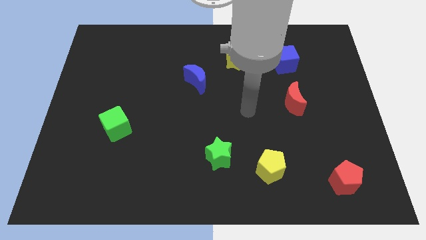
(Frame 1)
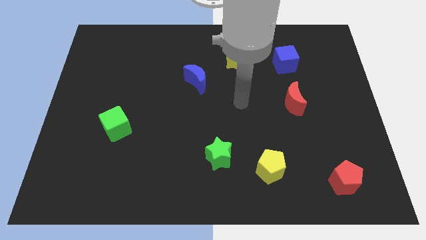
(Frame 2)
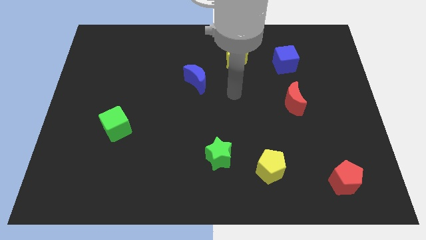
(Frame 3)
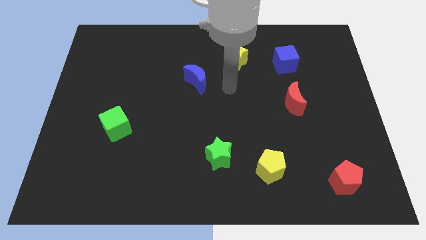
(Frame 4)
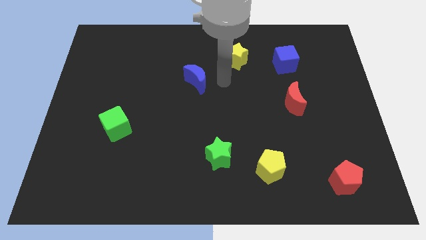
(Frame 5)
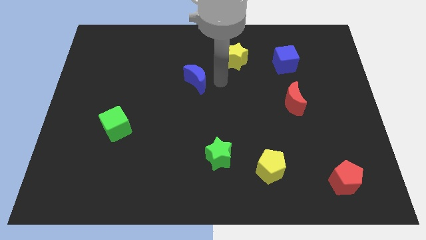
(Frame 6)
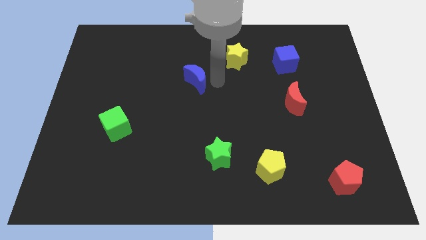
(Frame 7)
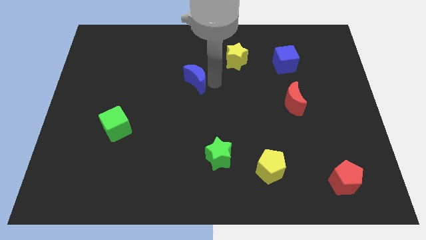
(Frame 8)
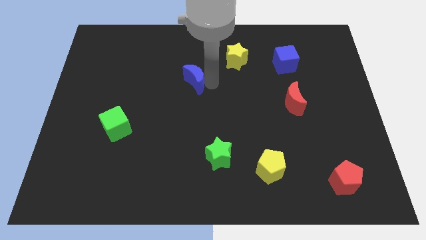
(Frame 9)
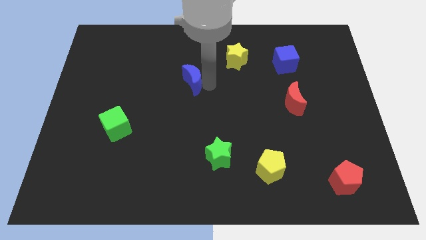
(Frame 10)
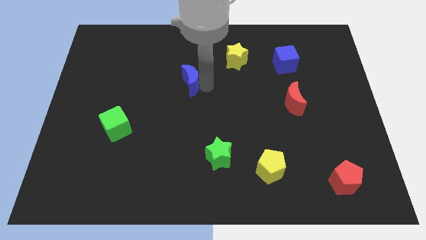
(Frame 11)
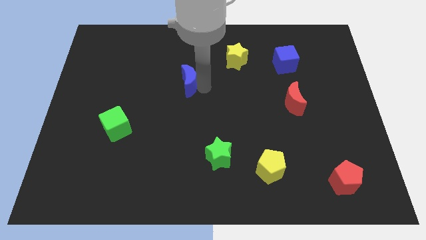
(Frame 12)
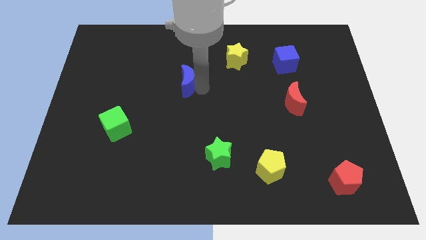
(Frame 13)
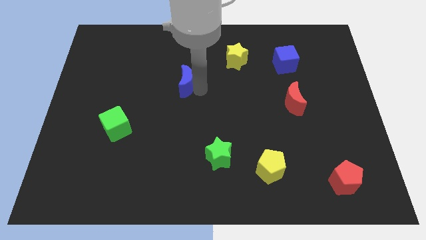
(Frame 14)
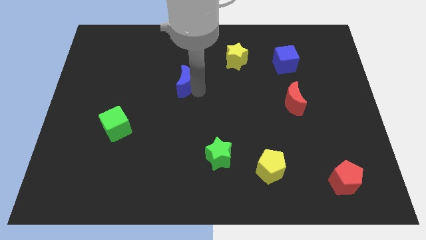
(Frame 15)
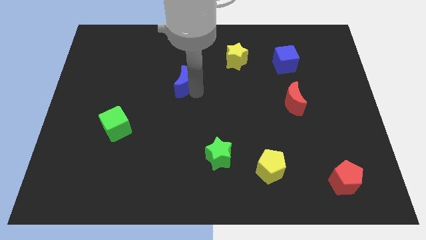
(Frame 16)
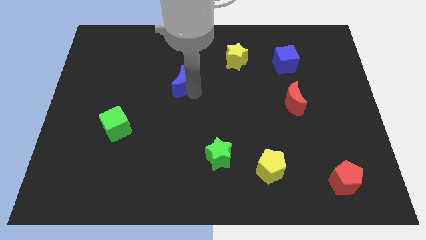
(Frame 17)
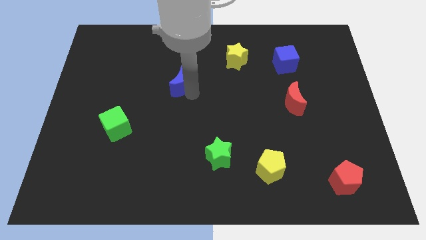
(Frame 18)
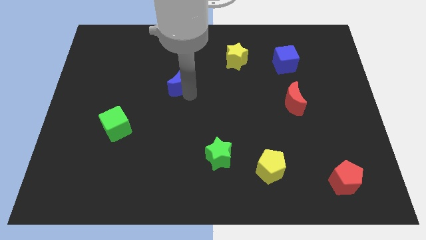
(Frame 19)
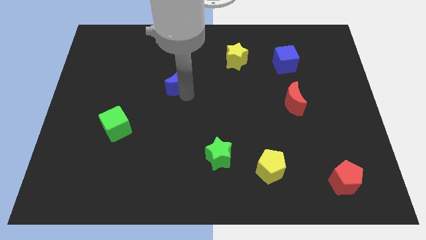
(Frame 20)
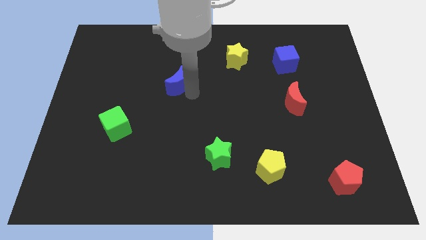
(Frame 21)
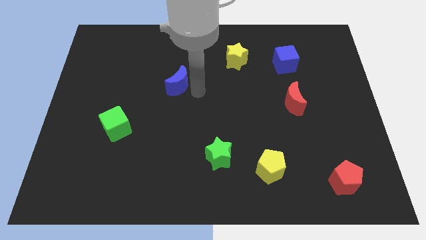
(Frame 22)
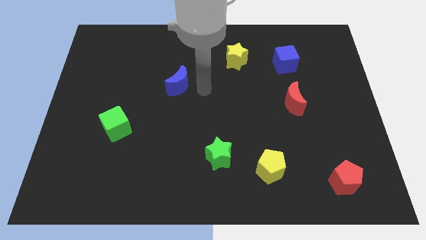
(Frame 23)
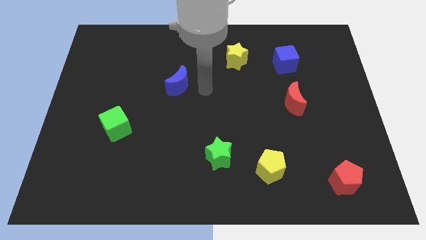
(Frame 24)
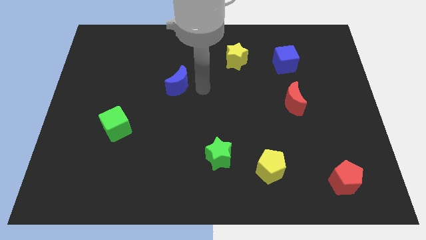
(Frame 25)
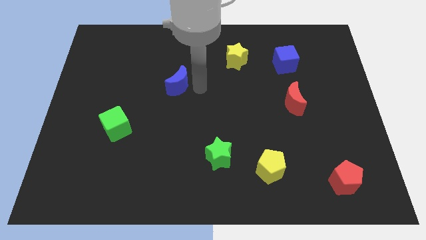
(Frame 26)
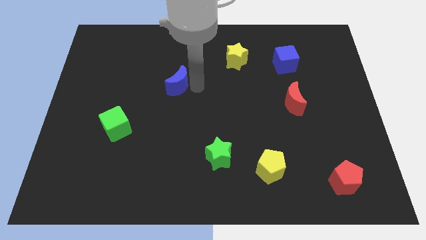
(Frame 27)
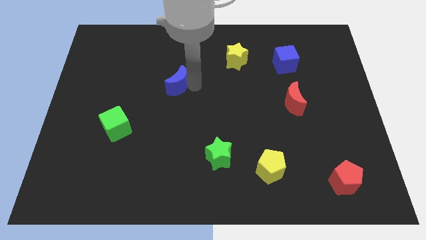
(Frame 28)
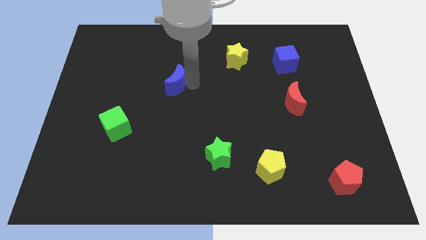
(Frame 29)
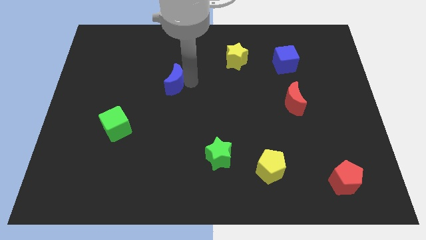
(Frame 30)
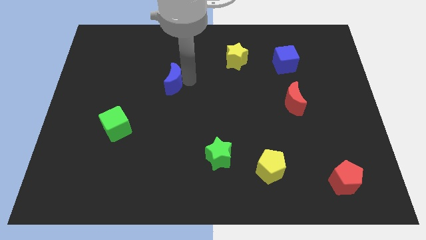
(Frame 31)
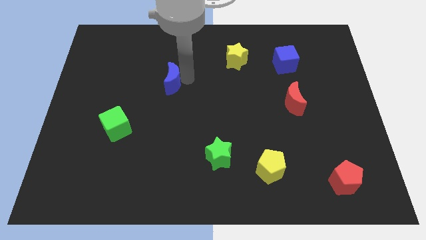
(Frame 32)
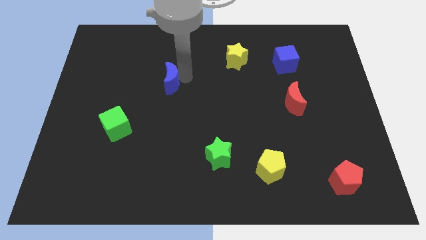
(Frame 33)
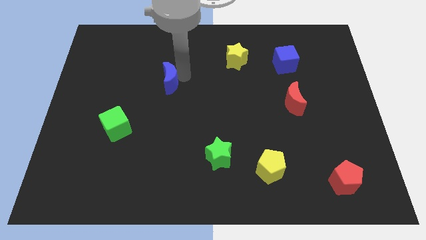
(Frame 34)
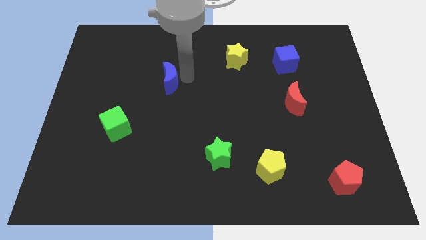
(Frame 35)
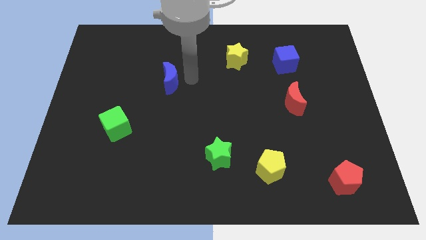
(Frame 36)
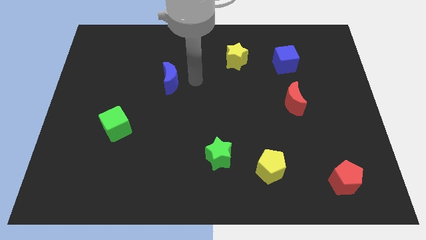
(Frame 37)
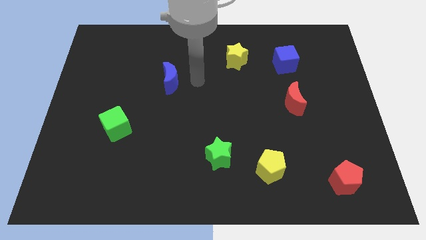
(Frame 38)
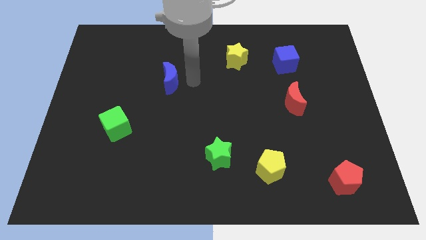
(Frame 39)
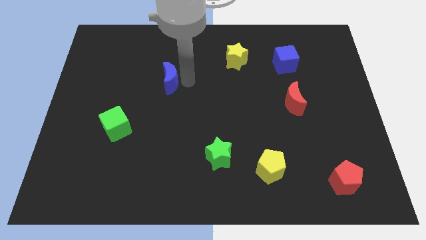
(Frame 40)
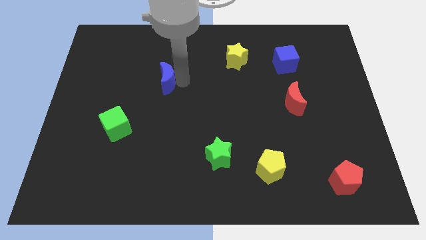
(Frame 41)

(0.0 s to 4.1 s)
slightly move the blue moon left

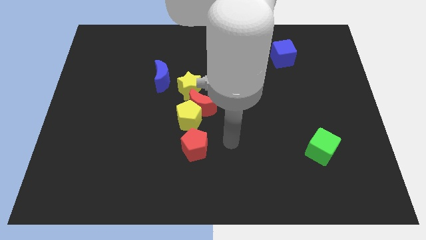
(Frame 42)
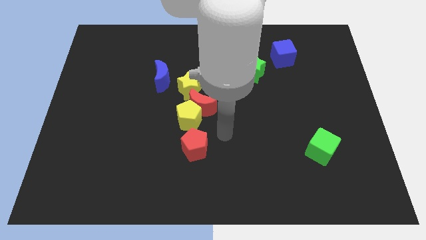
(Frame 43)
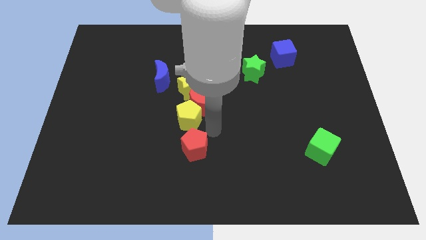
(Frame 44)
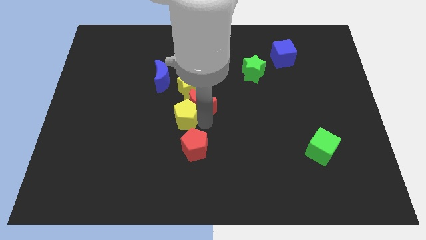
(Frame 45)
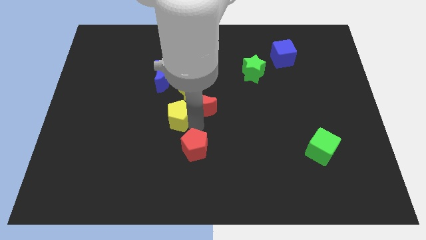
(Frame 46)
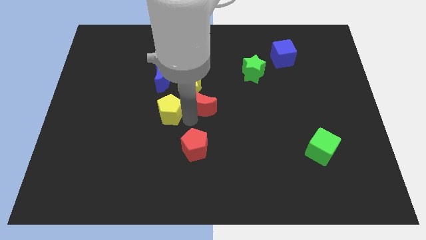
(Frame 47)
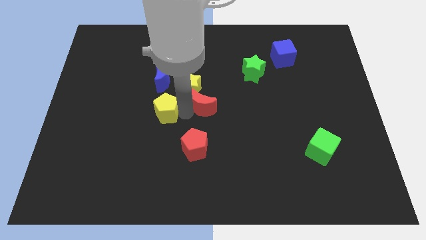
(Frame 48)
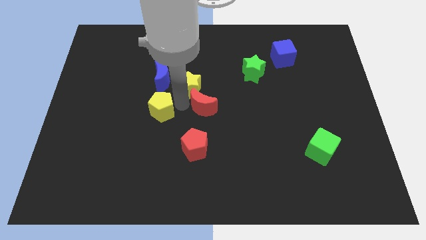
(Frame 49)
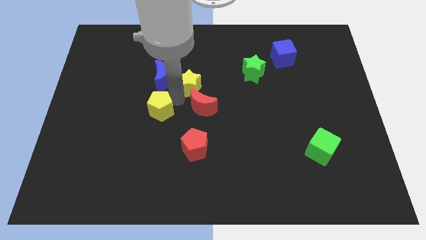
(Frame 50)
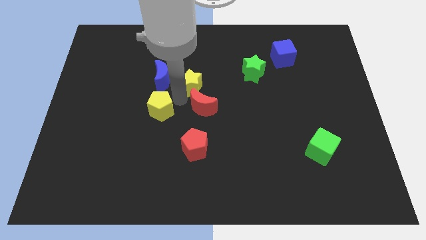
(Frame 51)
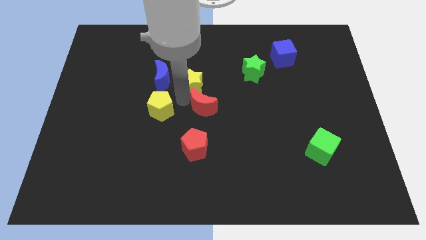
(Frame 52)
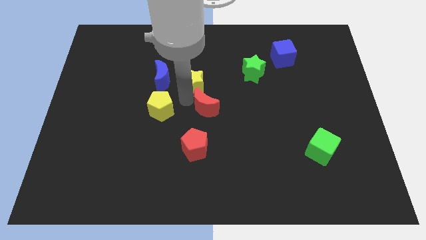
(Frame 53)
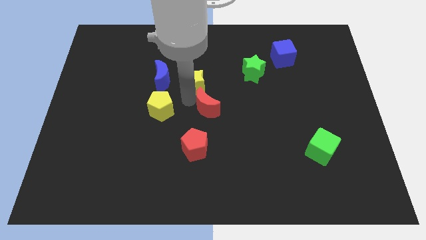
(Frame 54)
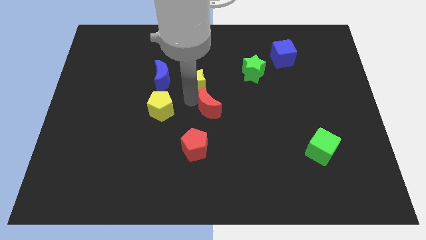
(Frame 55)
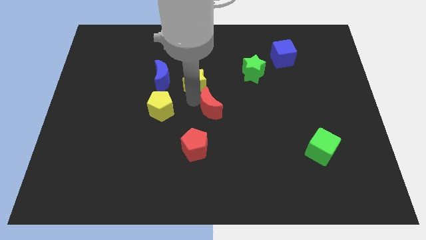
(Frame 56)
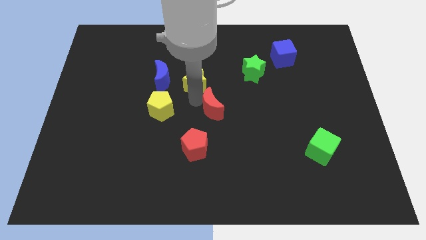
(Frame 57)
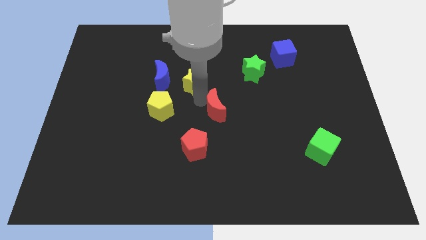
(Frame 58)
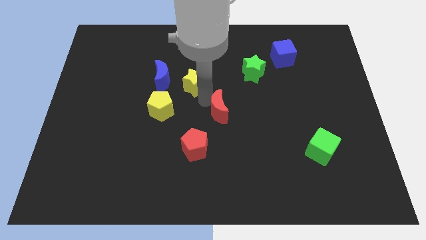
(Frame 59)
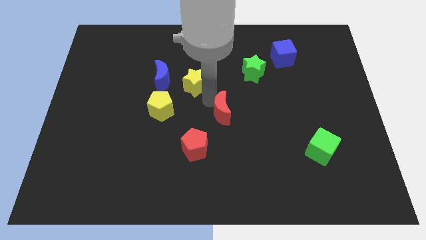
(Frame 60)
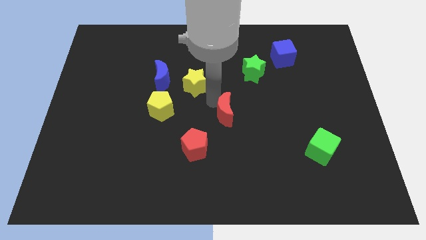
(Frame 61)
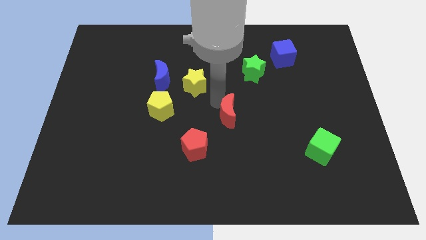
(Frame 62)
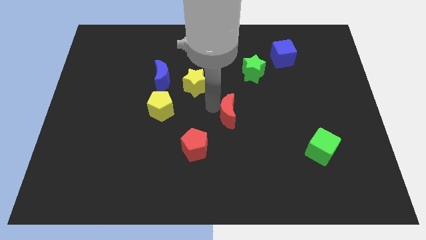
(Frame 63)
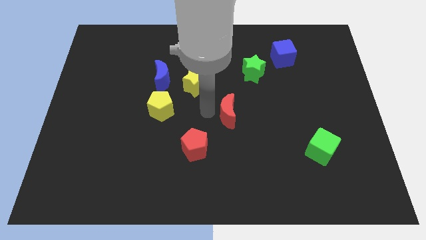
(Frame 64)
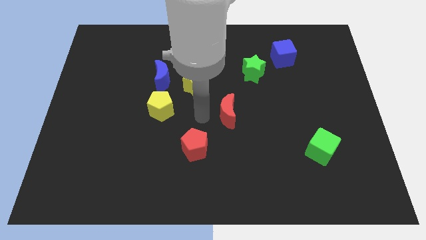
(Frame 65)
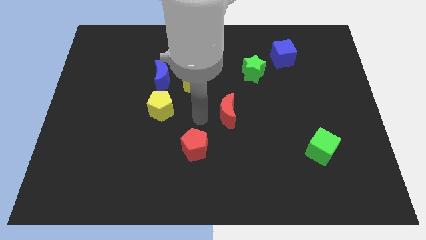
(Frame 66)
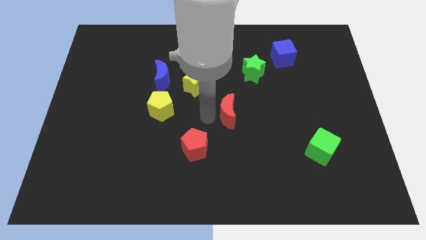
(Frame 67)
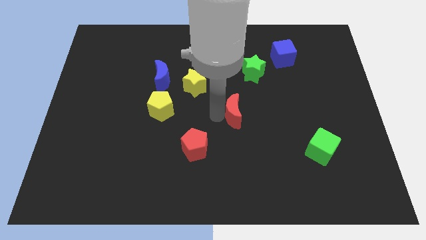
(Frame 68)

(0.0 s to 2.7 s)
slide the red moon to the right a bit

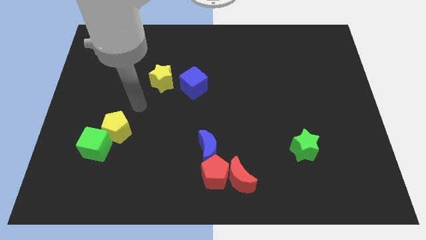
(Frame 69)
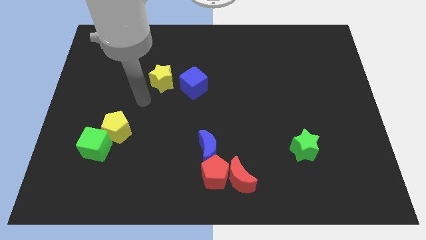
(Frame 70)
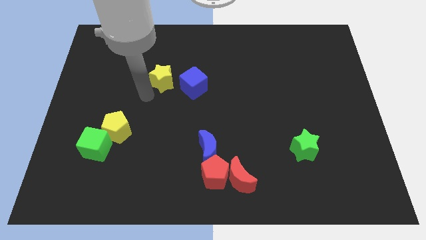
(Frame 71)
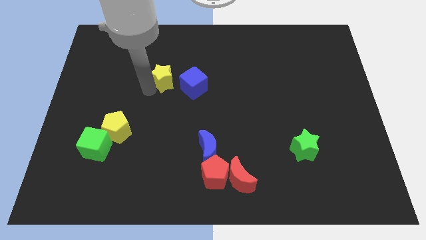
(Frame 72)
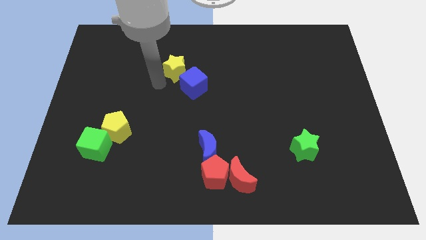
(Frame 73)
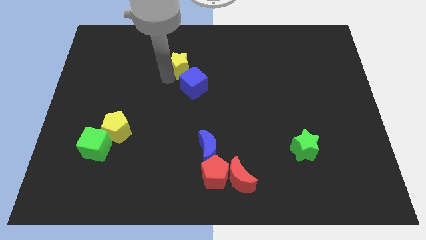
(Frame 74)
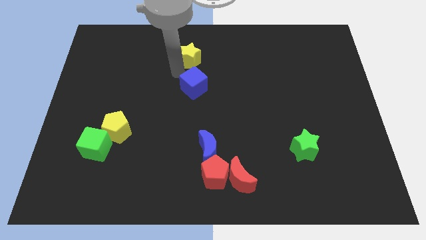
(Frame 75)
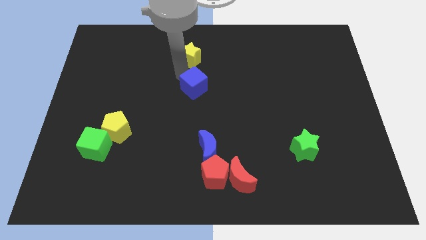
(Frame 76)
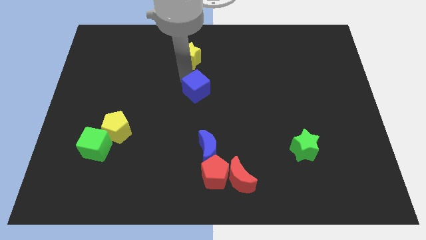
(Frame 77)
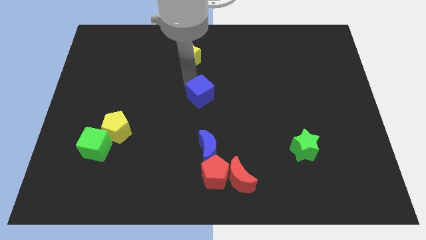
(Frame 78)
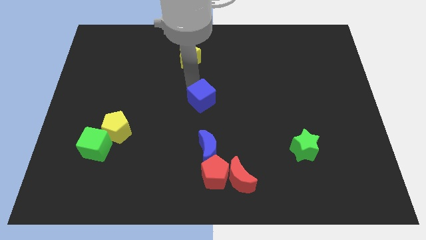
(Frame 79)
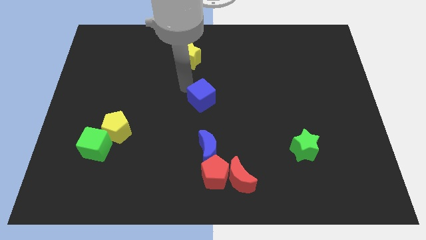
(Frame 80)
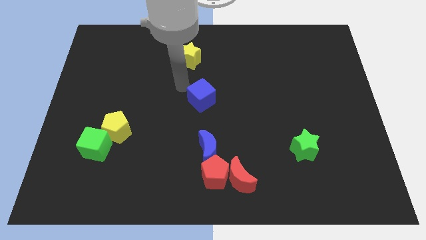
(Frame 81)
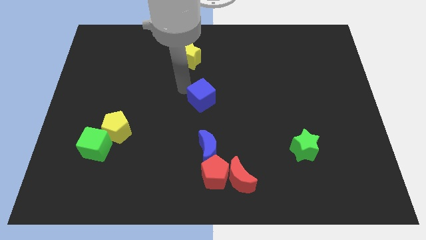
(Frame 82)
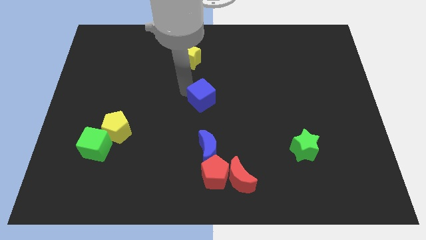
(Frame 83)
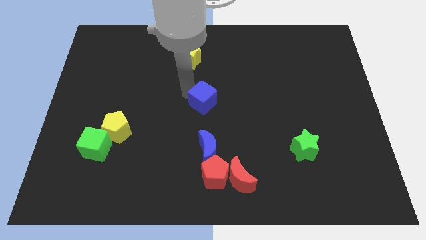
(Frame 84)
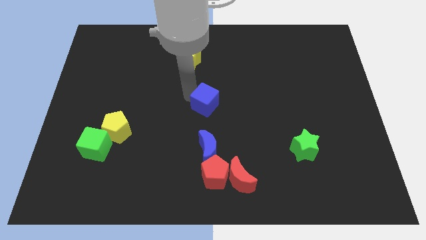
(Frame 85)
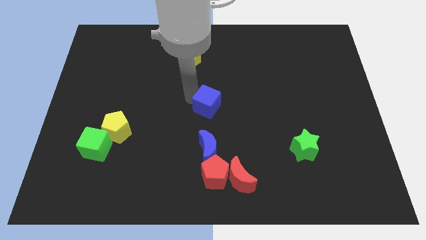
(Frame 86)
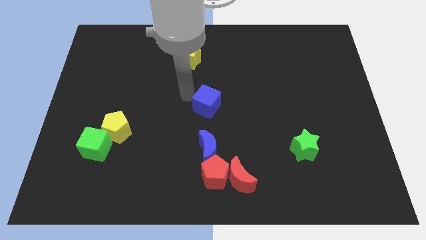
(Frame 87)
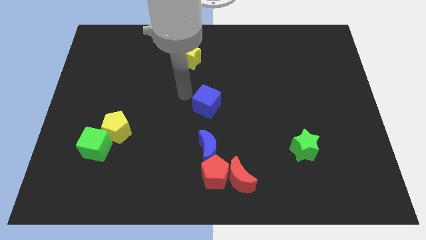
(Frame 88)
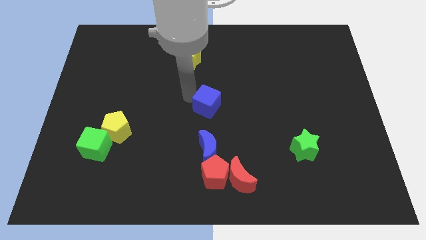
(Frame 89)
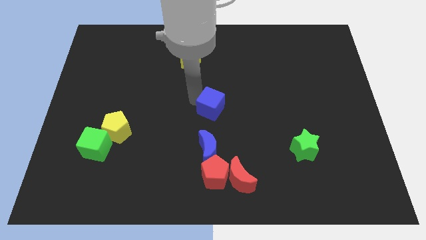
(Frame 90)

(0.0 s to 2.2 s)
slightly push the blue cube diagonally down and right
